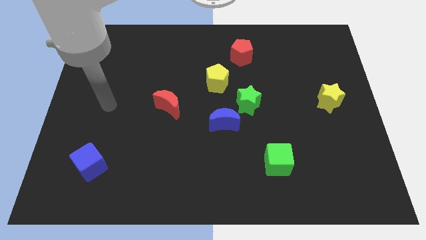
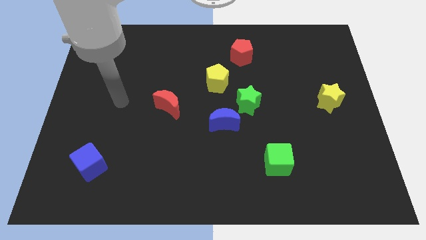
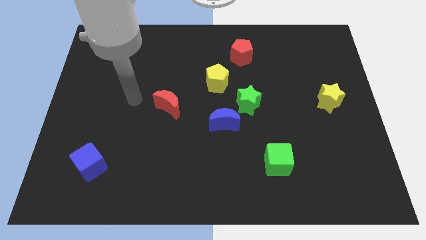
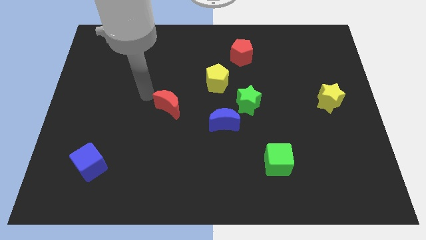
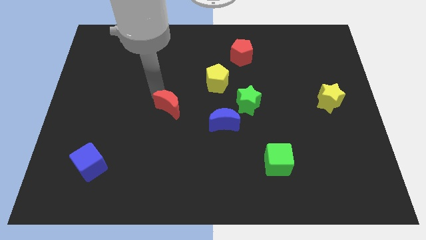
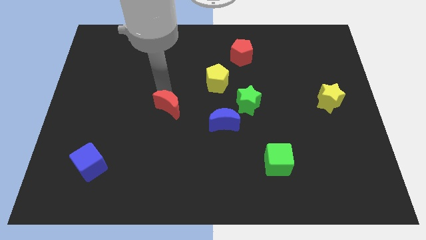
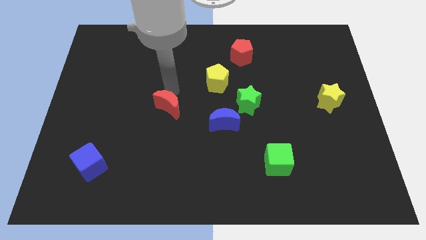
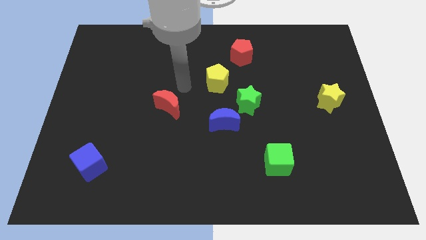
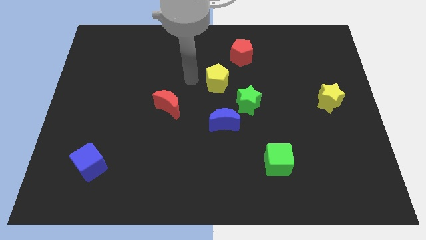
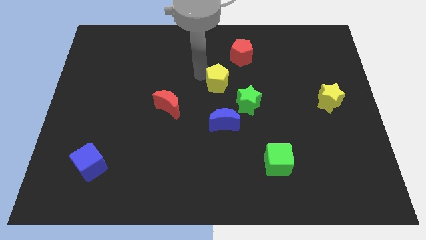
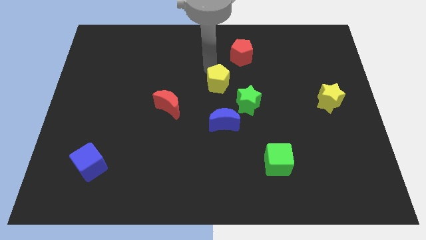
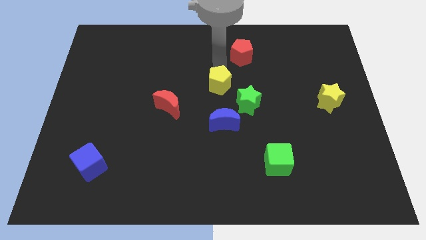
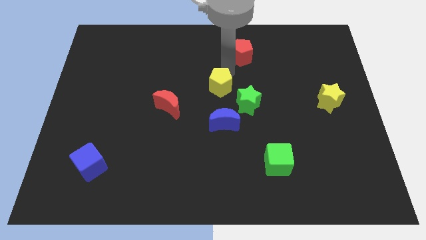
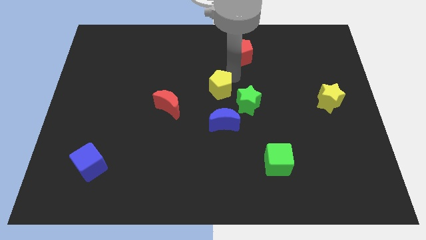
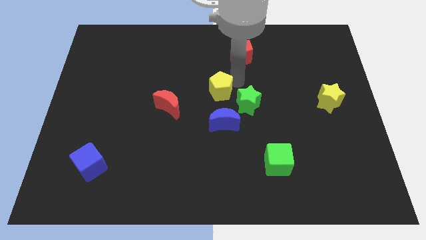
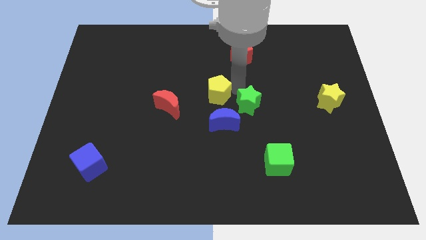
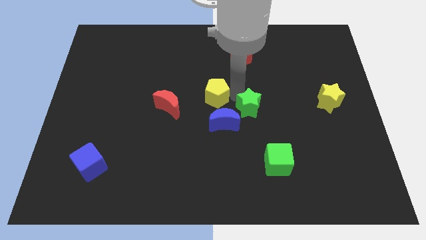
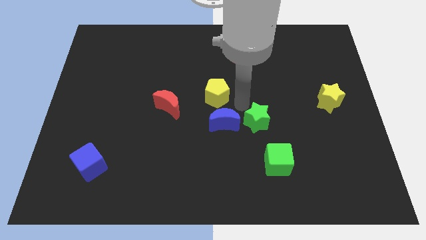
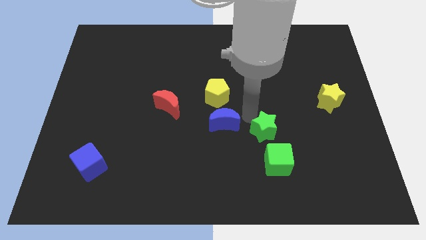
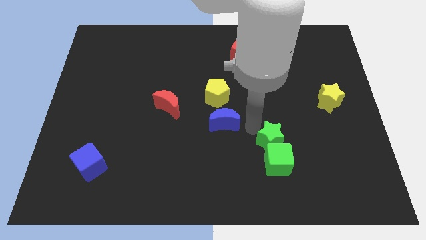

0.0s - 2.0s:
move the blue moon away from the green star

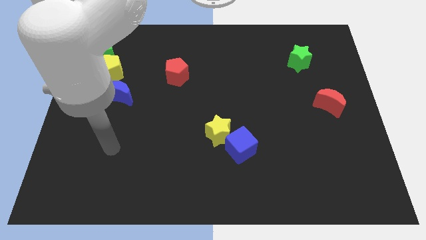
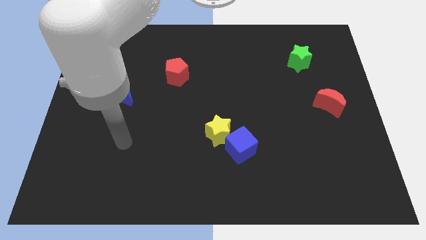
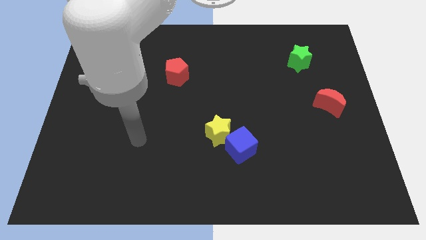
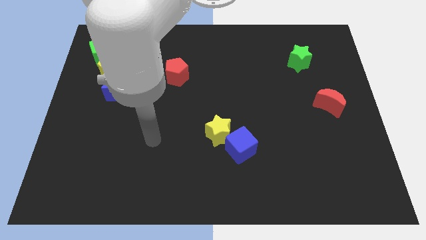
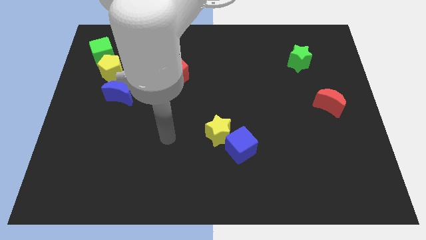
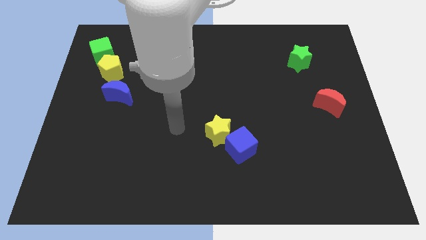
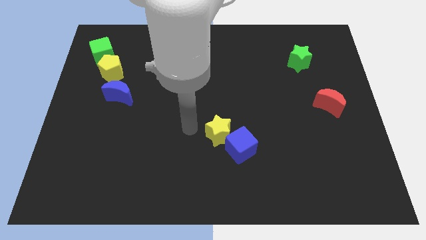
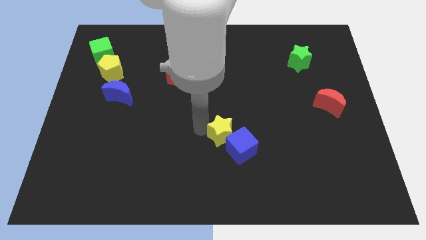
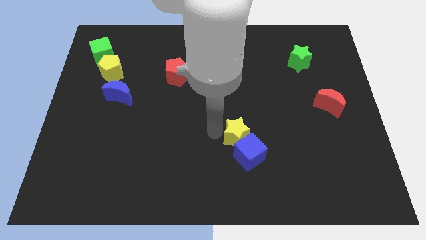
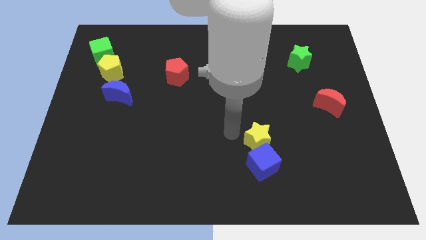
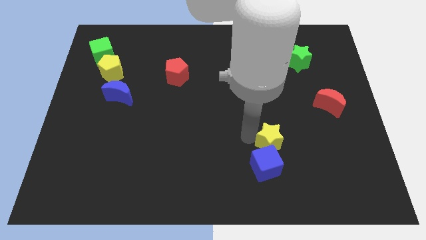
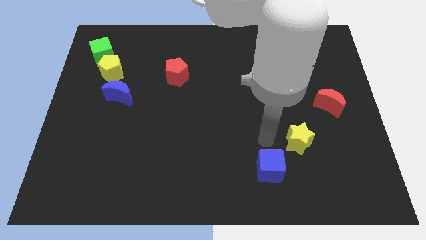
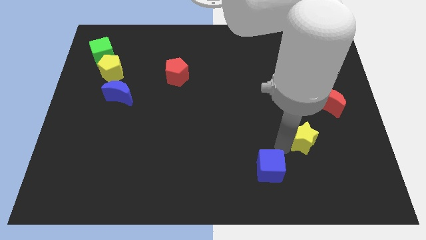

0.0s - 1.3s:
pull the blue cube apart from the yellow star

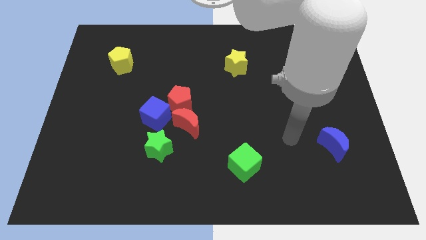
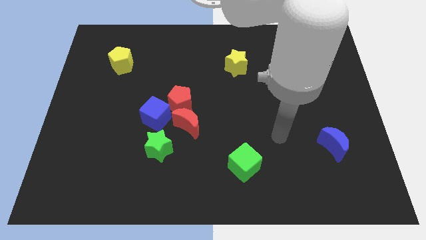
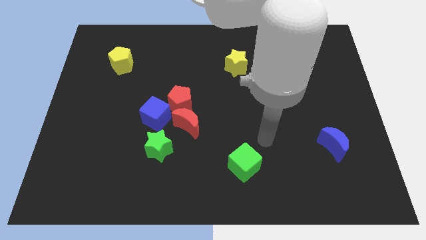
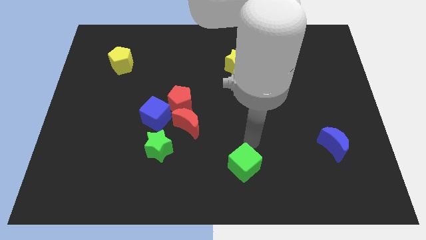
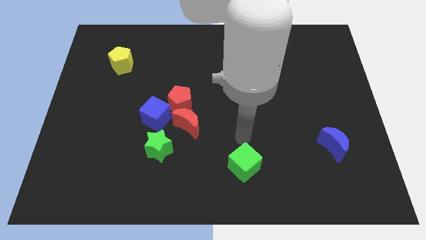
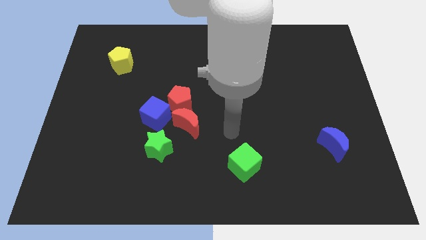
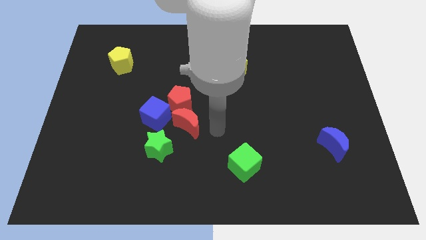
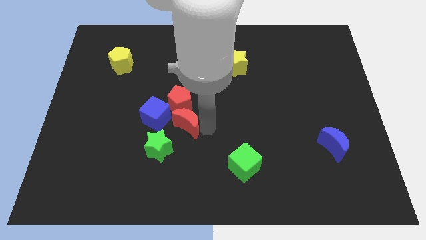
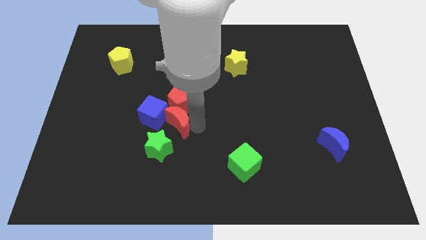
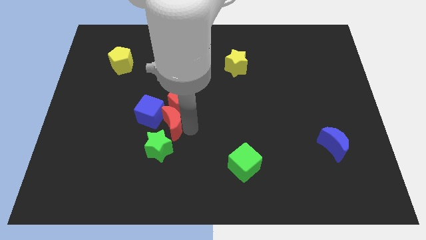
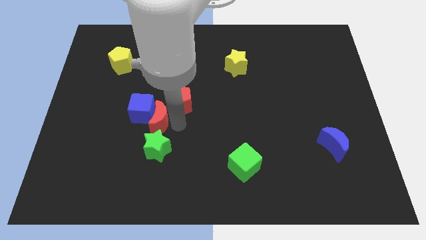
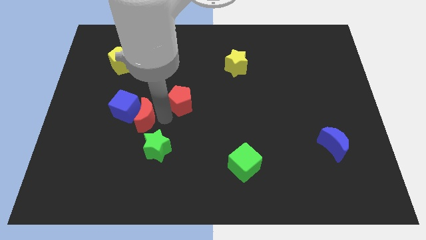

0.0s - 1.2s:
pull the red pentagon apart from the red moon and blue cube

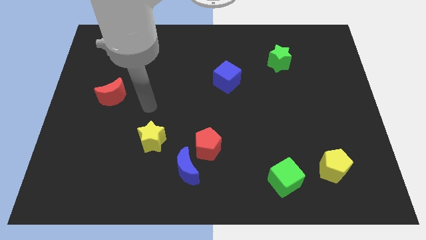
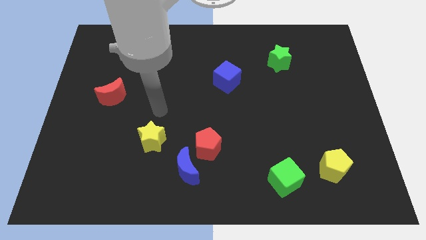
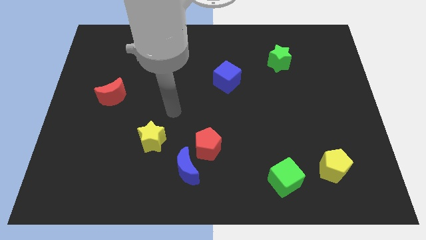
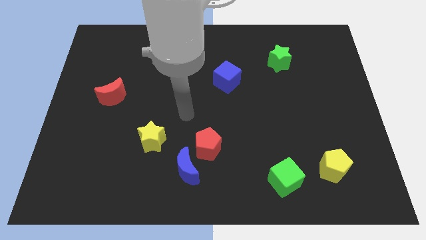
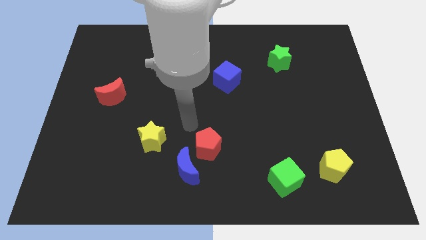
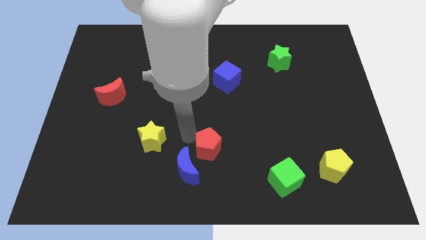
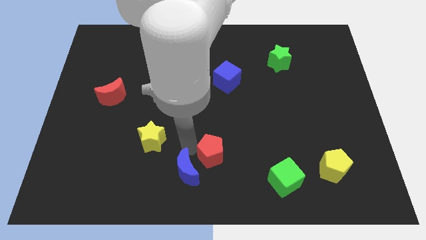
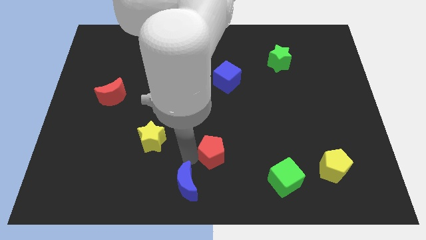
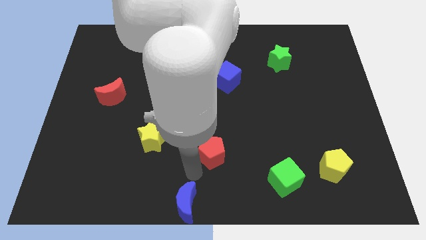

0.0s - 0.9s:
move the red pentagon away from the blue moon

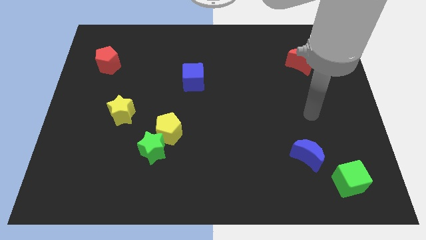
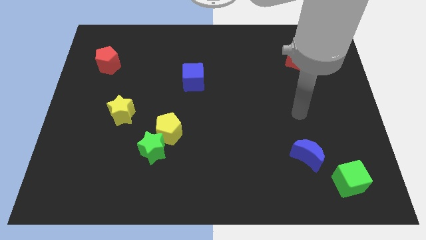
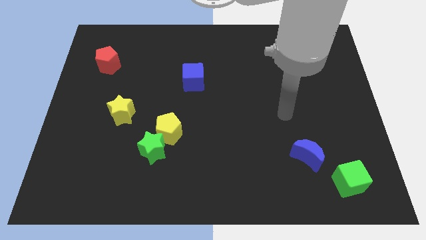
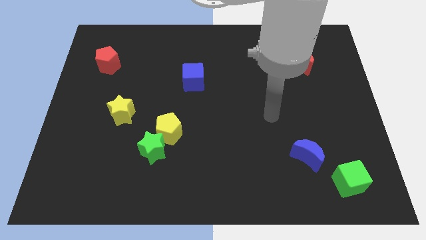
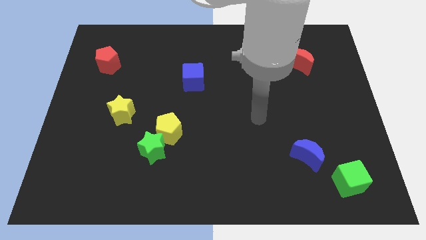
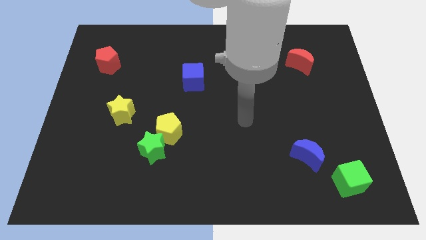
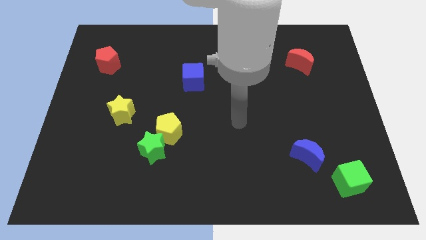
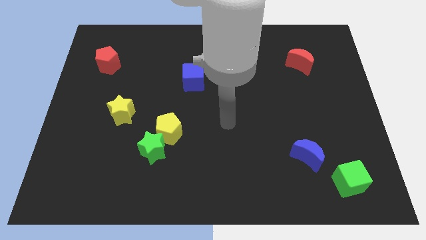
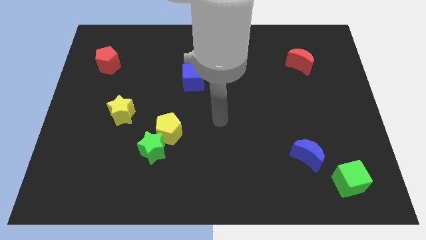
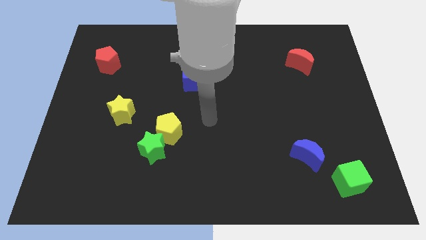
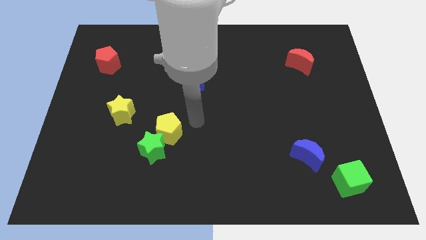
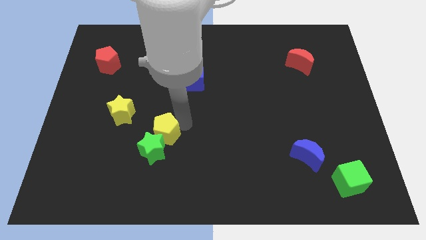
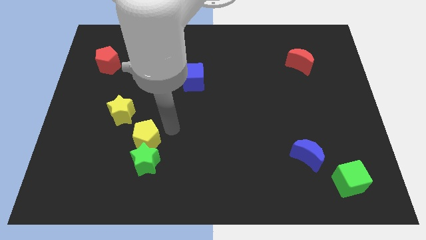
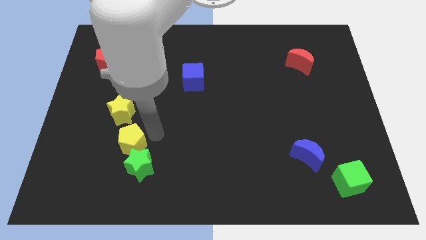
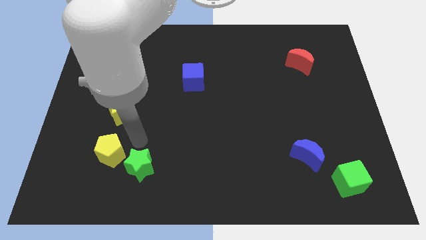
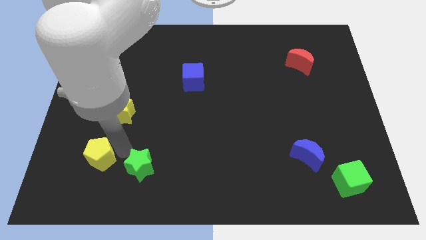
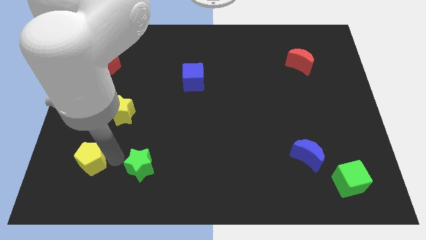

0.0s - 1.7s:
move the green star away from the yellow pentagon

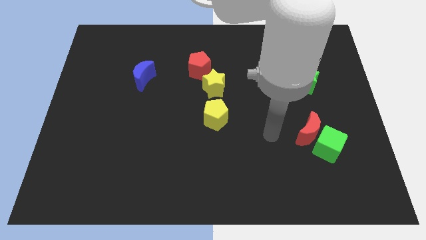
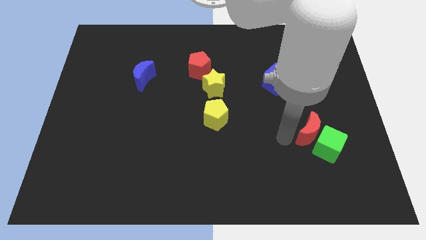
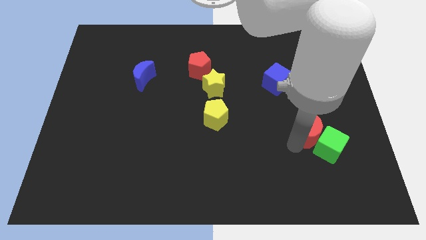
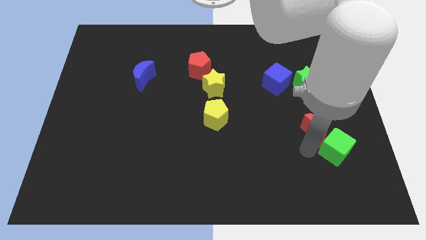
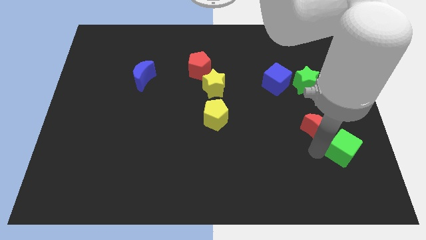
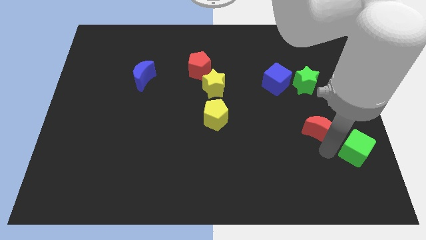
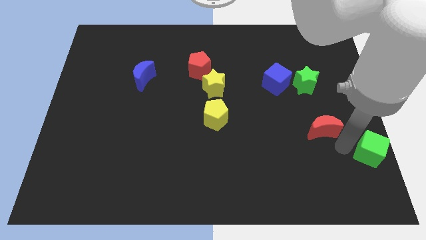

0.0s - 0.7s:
separate the red moon from the green cube

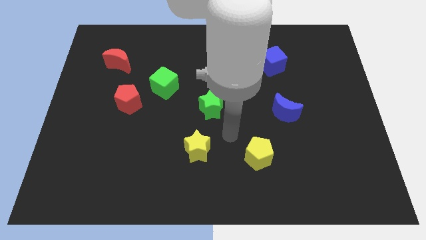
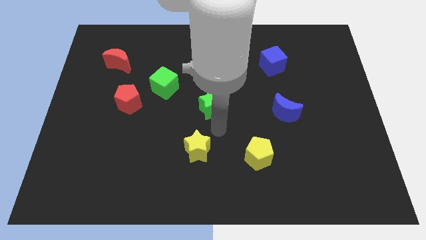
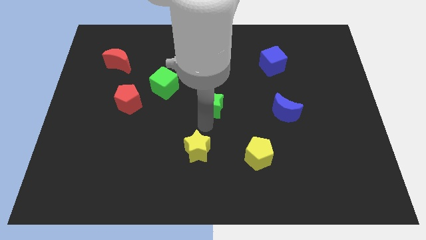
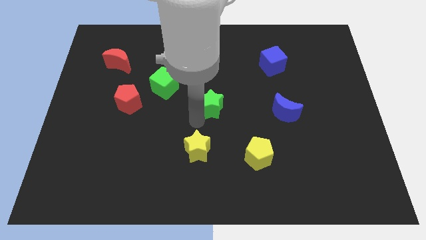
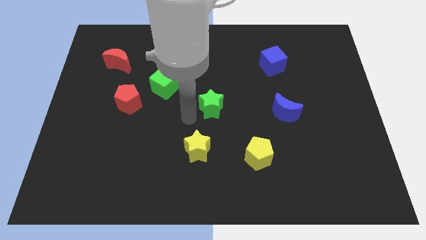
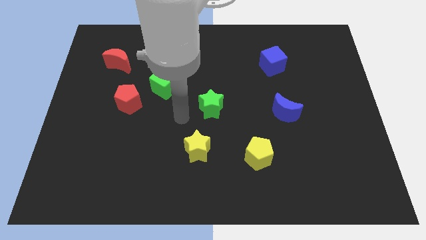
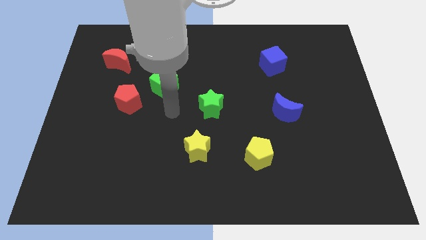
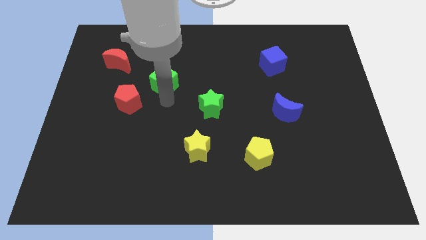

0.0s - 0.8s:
separate the red pentagon from the green cube

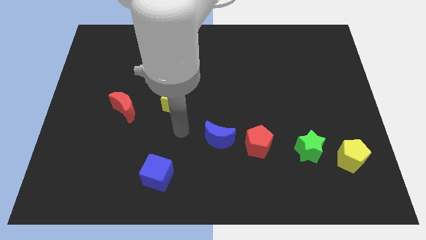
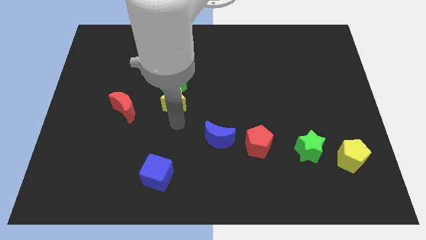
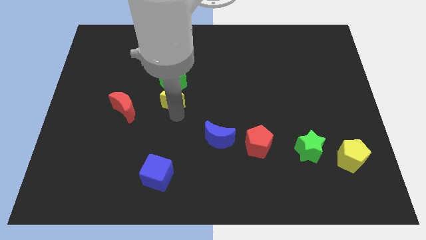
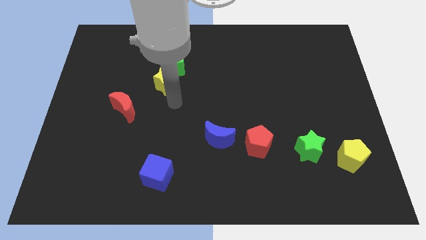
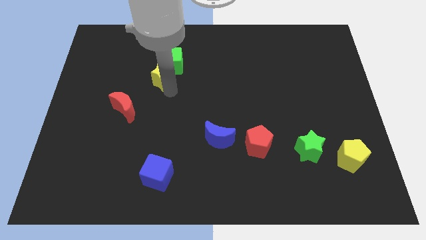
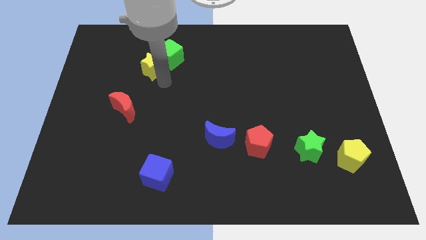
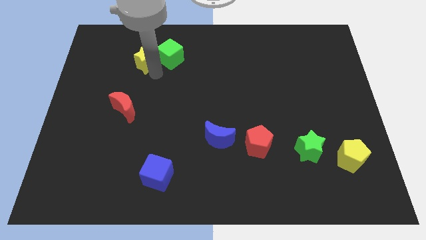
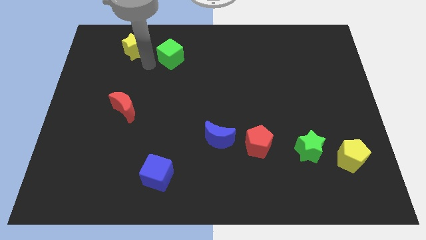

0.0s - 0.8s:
separate the green cube from the yellow star
